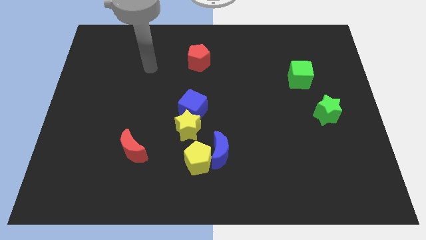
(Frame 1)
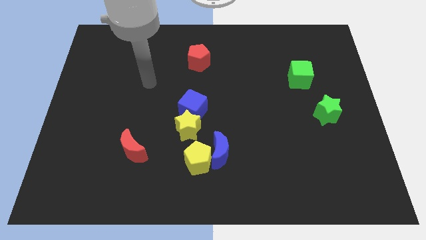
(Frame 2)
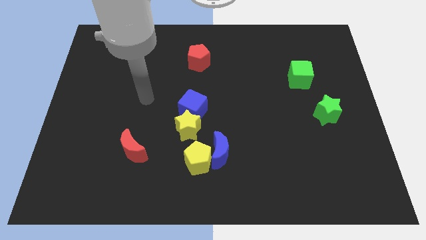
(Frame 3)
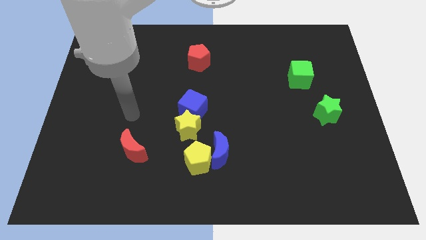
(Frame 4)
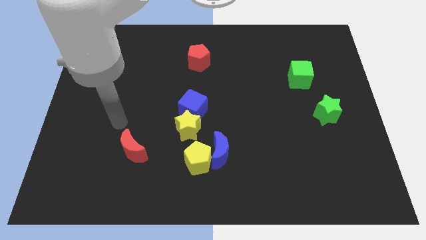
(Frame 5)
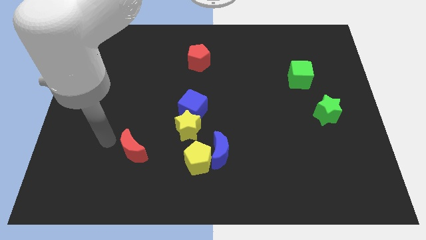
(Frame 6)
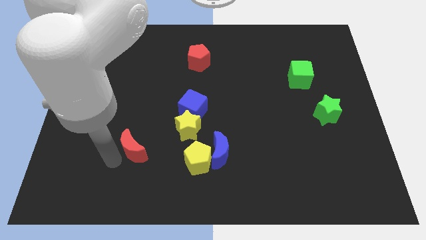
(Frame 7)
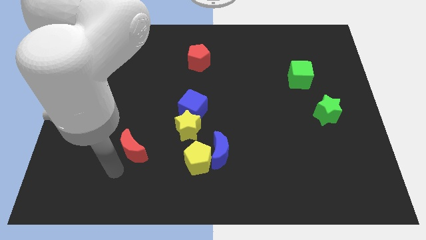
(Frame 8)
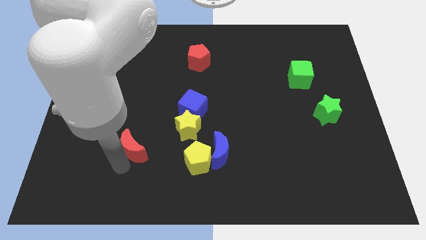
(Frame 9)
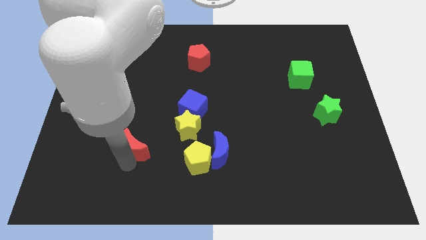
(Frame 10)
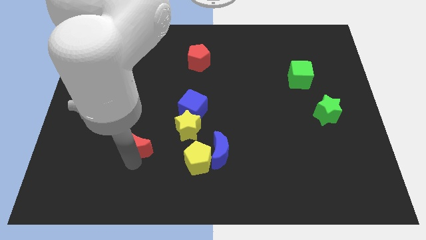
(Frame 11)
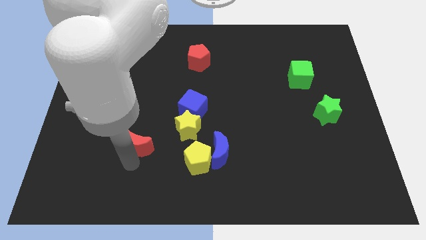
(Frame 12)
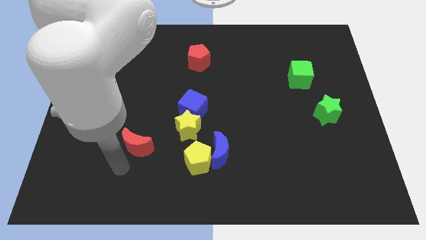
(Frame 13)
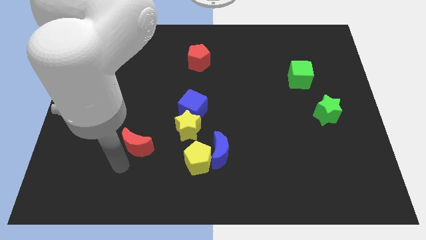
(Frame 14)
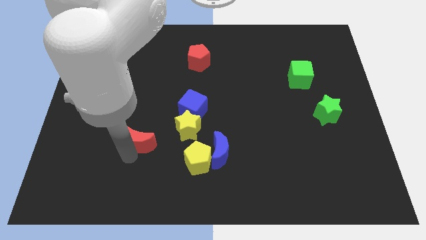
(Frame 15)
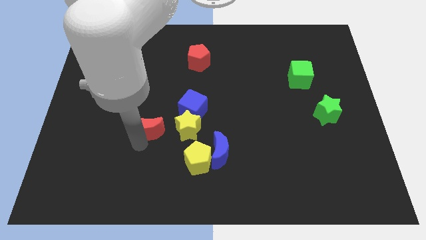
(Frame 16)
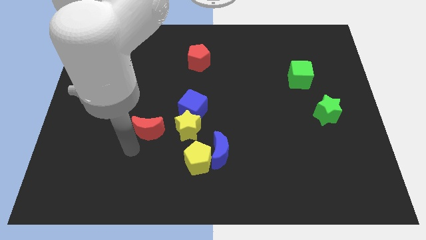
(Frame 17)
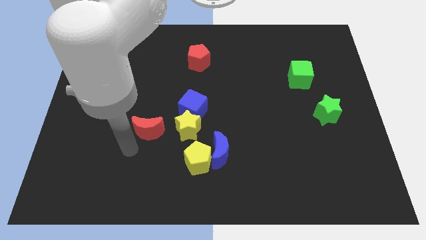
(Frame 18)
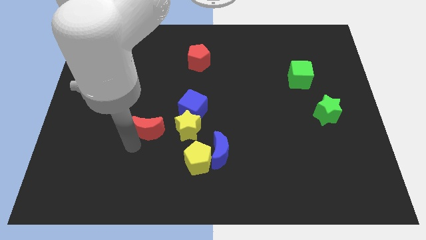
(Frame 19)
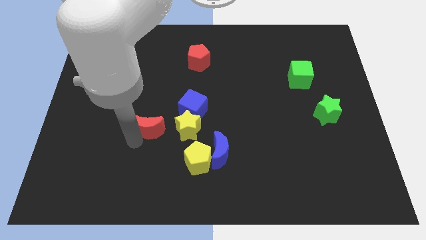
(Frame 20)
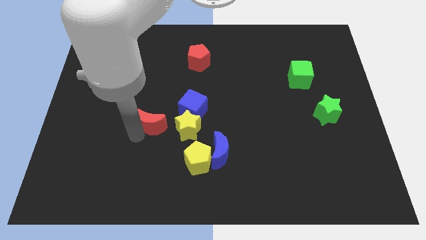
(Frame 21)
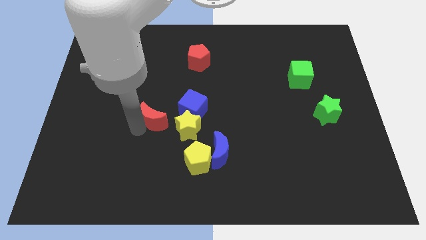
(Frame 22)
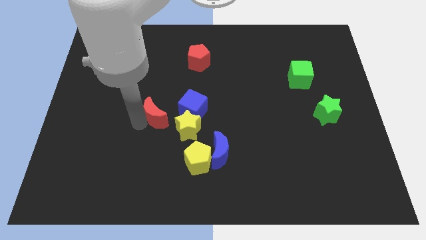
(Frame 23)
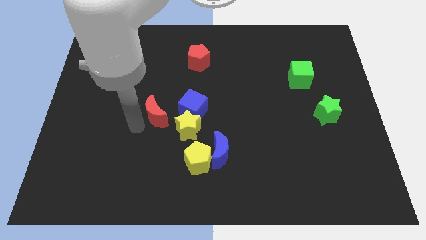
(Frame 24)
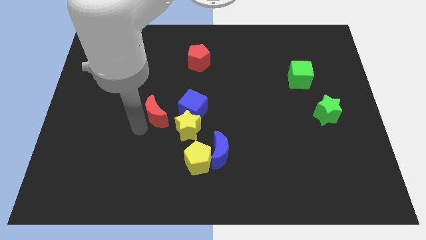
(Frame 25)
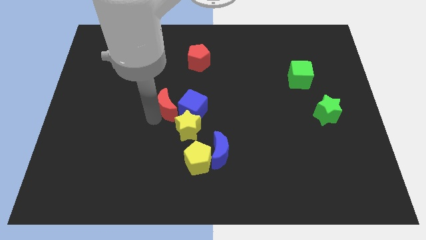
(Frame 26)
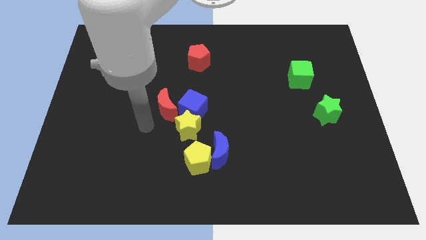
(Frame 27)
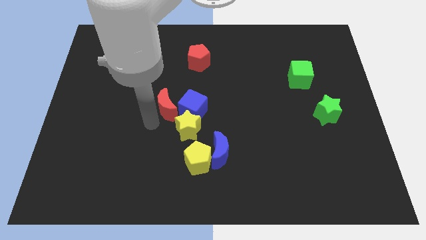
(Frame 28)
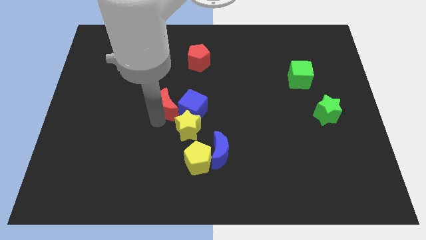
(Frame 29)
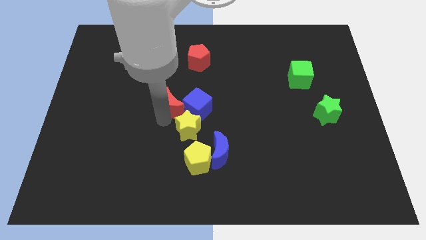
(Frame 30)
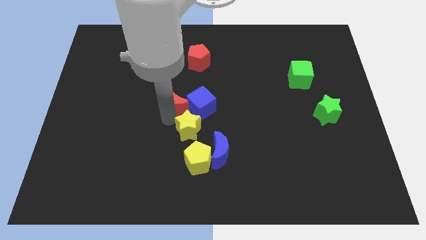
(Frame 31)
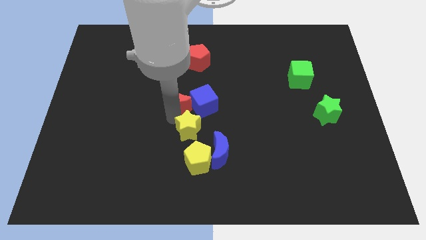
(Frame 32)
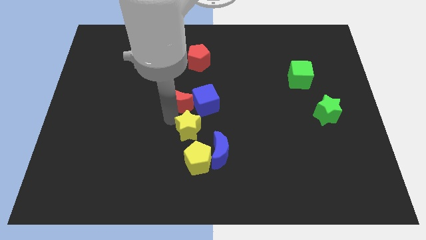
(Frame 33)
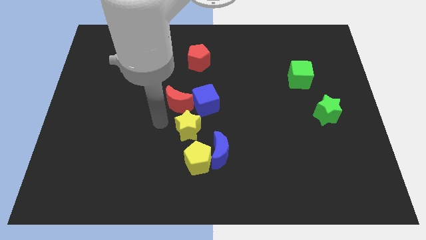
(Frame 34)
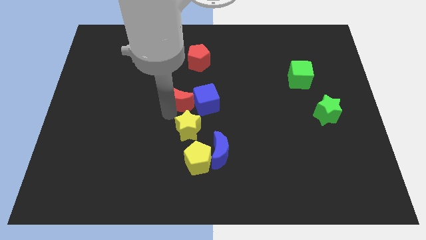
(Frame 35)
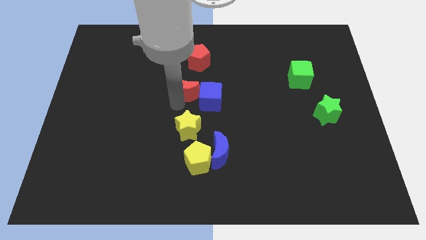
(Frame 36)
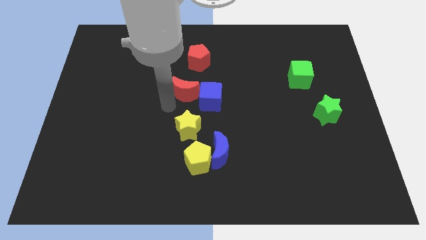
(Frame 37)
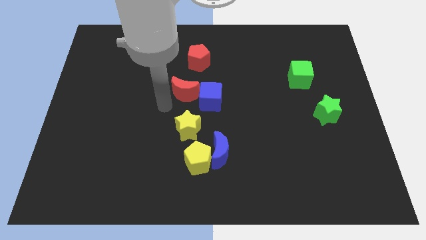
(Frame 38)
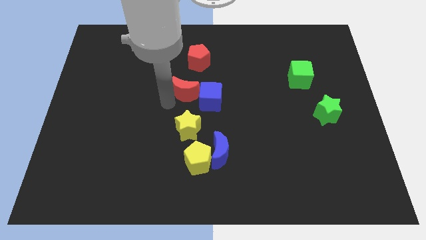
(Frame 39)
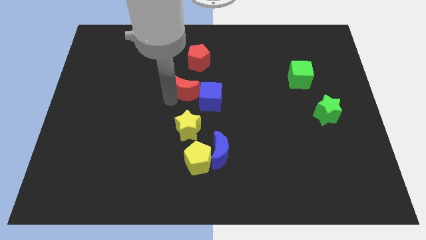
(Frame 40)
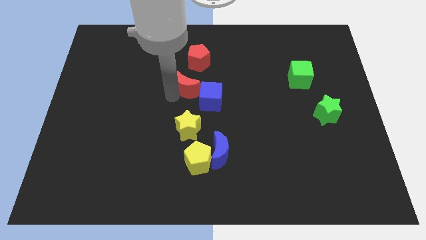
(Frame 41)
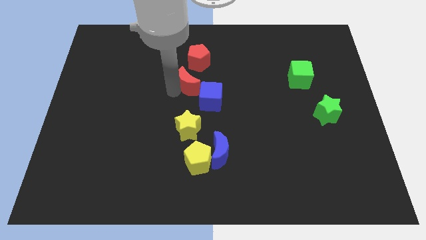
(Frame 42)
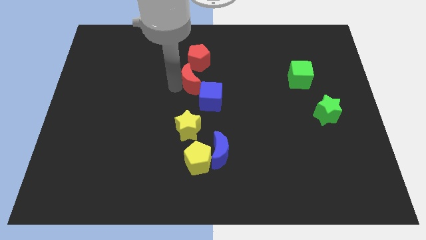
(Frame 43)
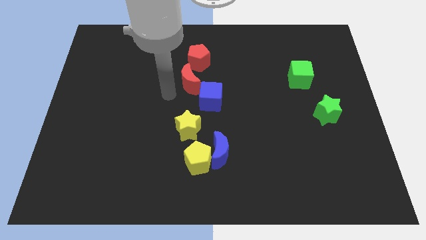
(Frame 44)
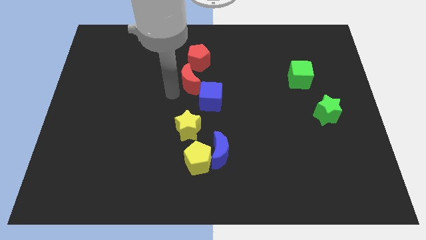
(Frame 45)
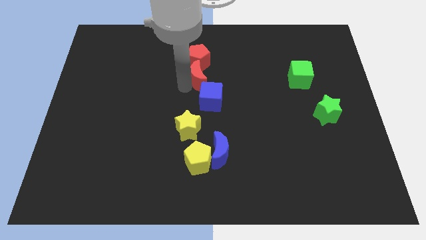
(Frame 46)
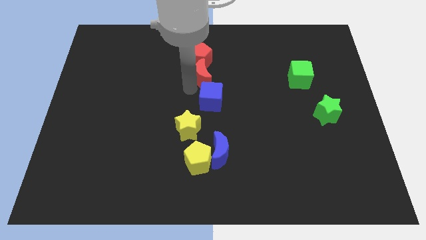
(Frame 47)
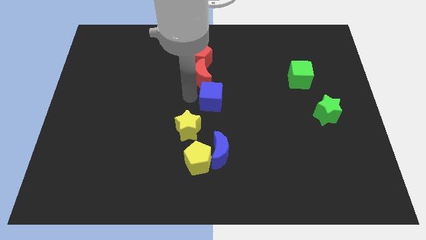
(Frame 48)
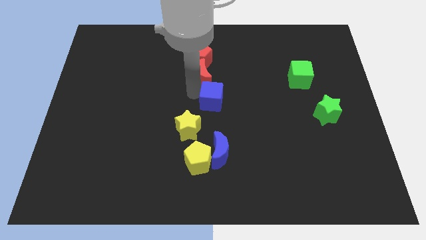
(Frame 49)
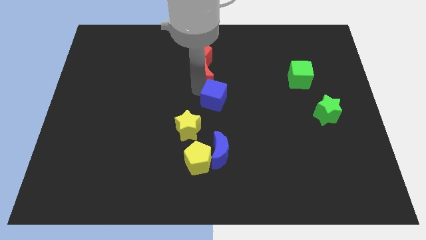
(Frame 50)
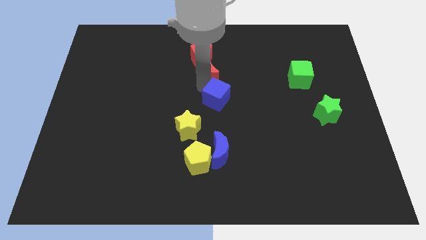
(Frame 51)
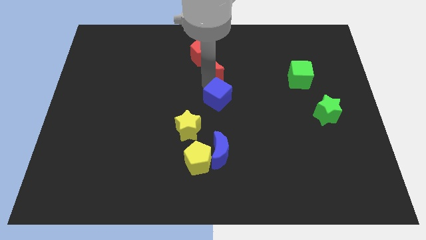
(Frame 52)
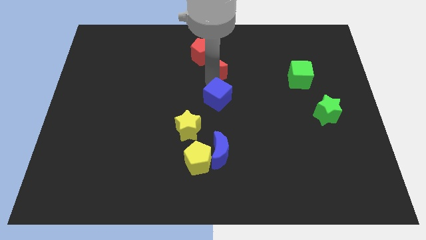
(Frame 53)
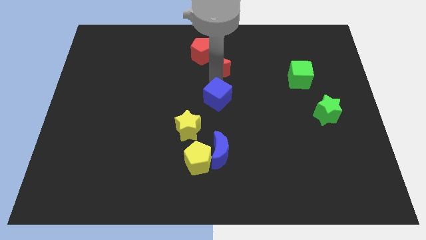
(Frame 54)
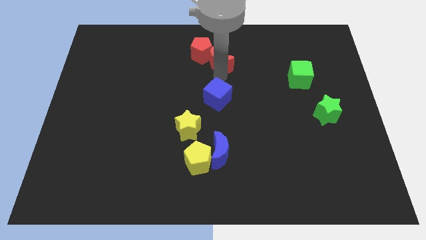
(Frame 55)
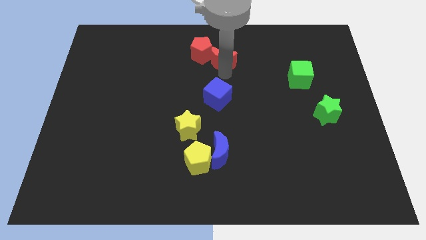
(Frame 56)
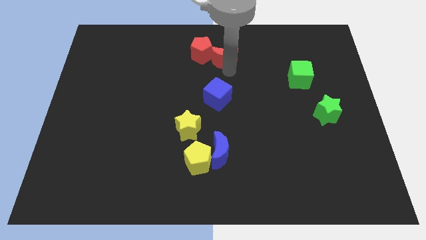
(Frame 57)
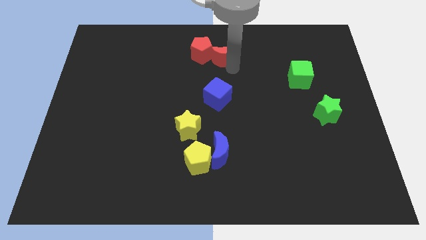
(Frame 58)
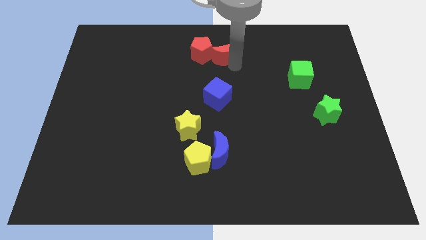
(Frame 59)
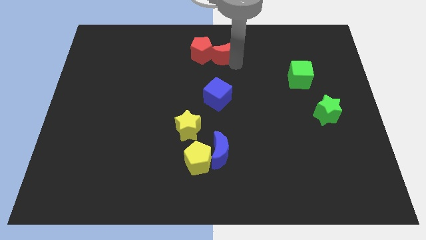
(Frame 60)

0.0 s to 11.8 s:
slide the red moon to the top side

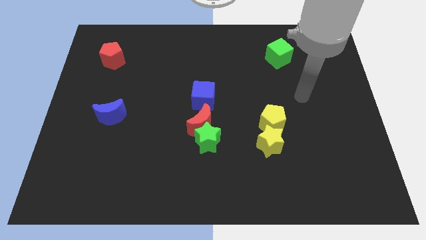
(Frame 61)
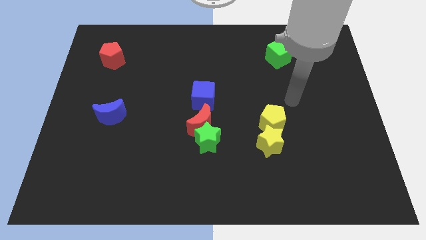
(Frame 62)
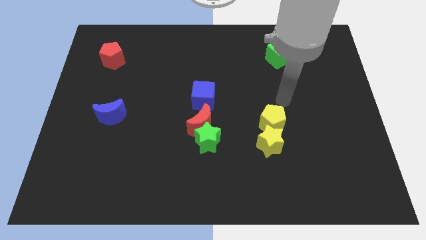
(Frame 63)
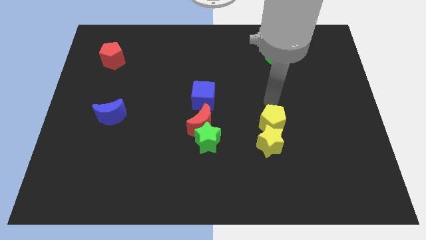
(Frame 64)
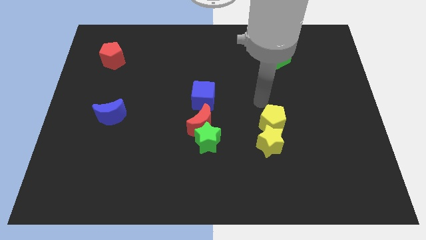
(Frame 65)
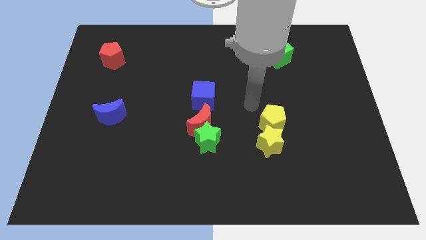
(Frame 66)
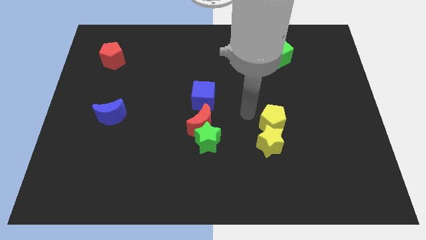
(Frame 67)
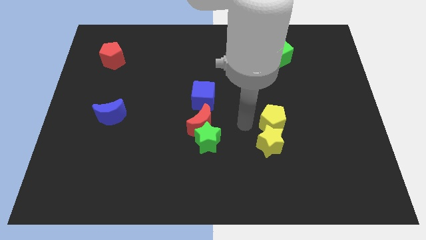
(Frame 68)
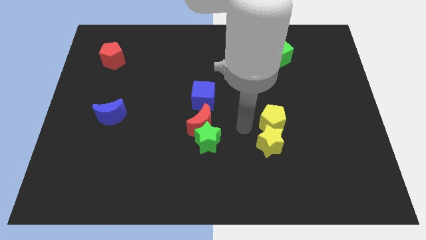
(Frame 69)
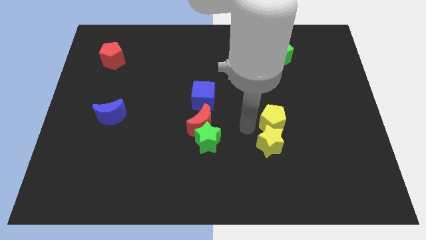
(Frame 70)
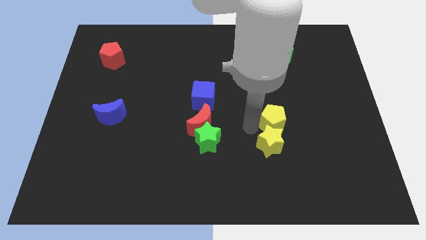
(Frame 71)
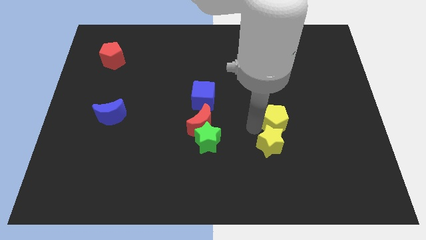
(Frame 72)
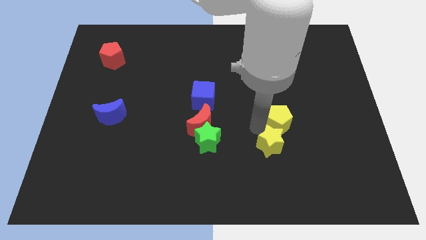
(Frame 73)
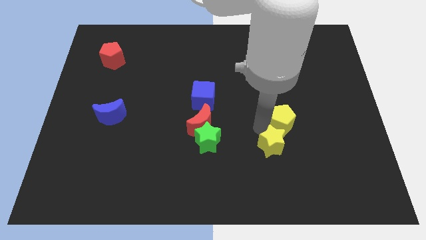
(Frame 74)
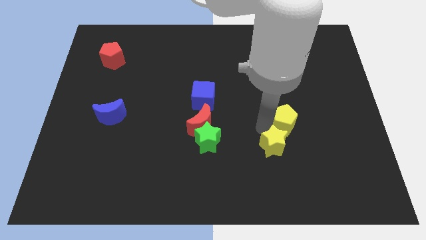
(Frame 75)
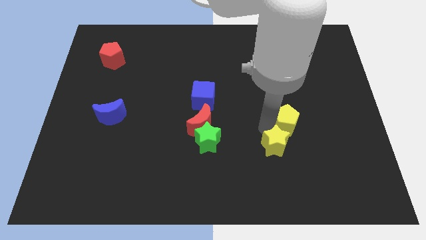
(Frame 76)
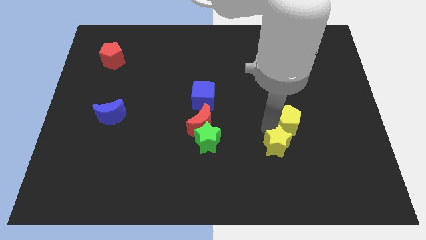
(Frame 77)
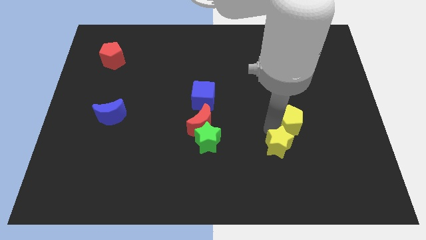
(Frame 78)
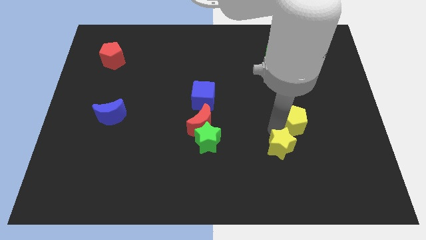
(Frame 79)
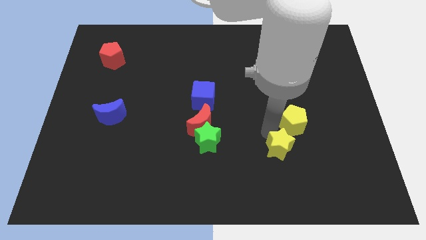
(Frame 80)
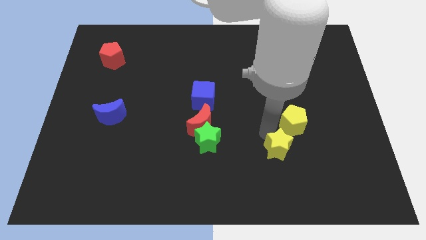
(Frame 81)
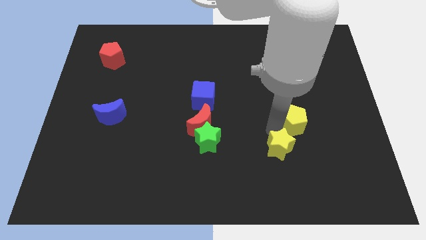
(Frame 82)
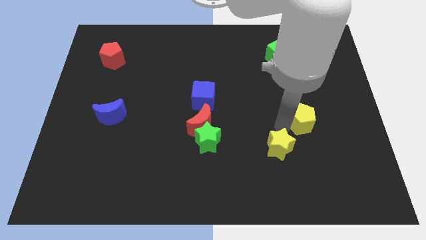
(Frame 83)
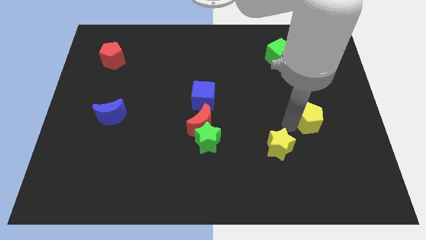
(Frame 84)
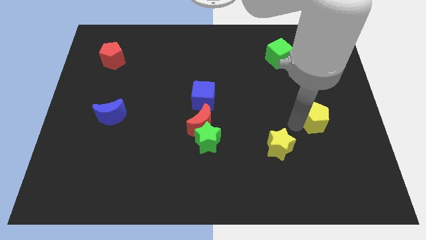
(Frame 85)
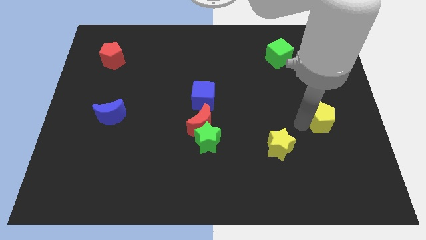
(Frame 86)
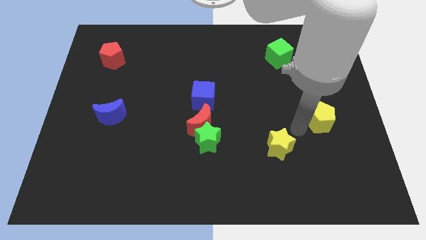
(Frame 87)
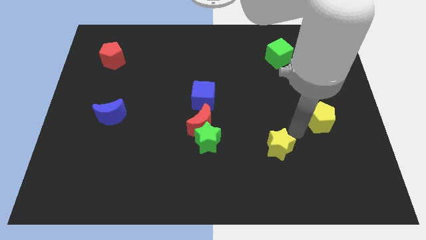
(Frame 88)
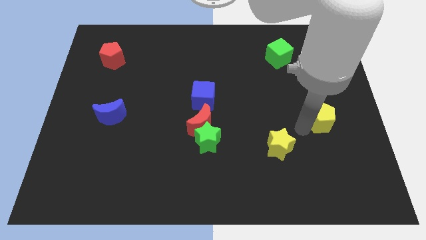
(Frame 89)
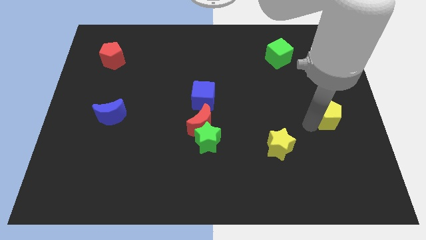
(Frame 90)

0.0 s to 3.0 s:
push the yellow pentagon to the right side of the board
